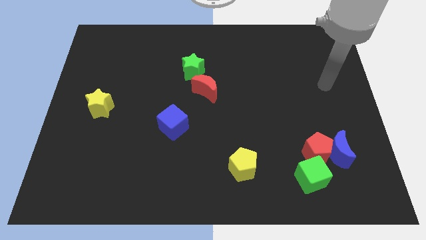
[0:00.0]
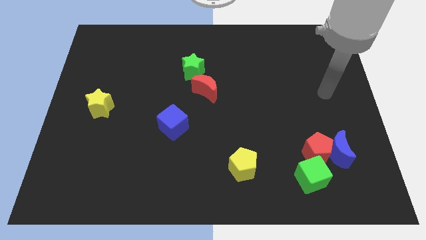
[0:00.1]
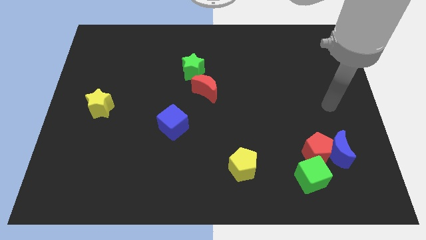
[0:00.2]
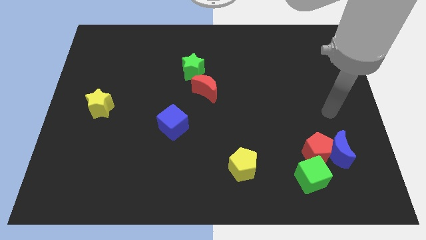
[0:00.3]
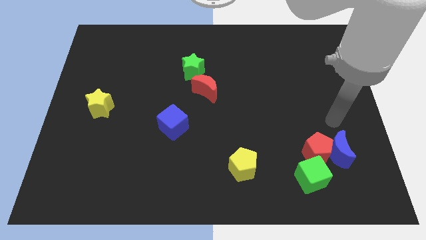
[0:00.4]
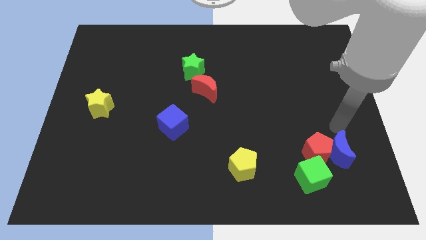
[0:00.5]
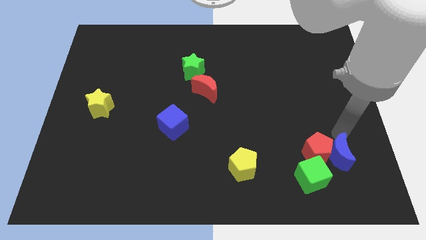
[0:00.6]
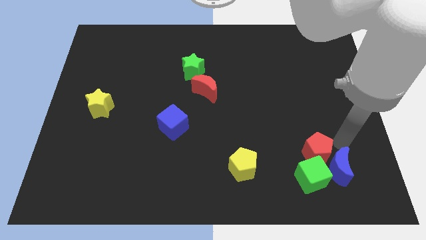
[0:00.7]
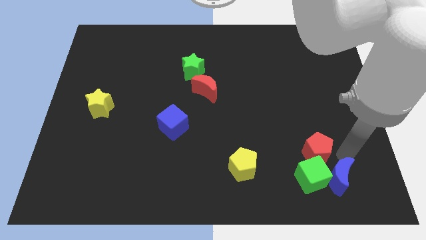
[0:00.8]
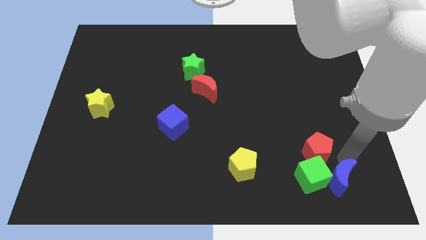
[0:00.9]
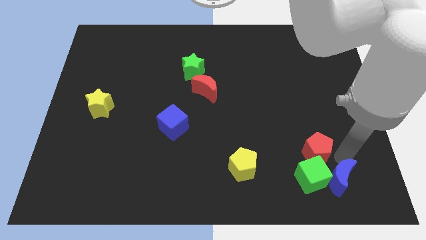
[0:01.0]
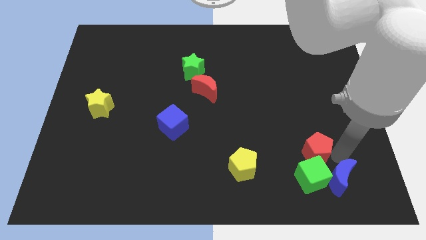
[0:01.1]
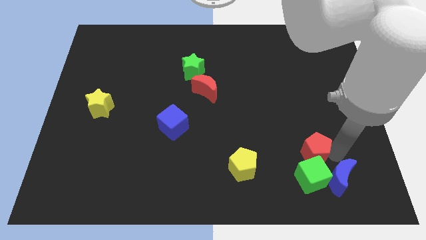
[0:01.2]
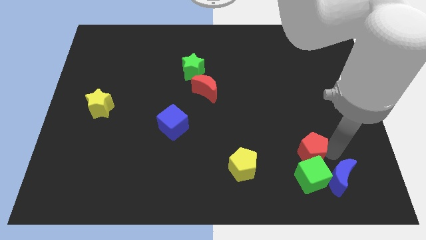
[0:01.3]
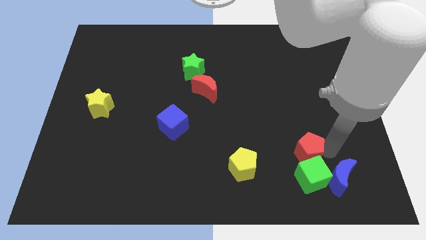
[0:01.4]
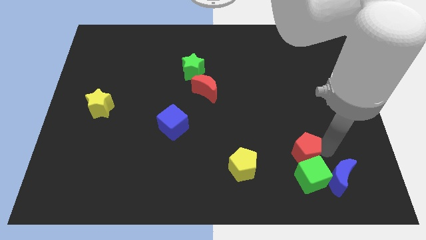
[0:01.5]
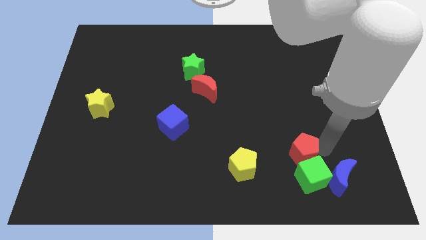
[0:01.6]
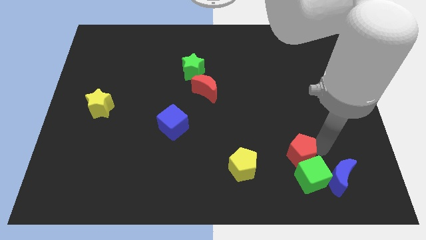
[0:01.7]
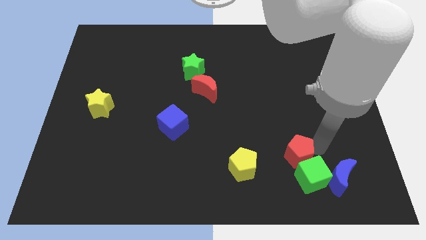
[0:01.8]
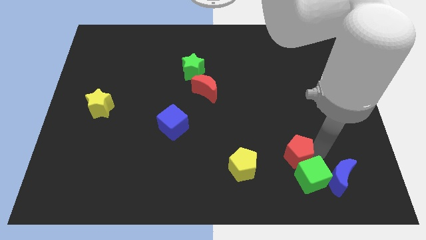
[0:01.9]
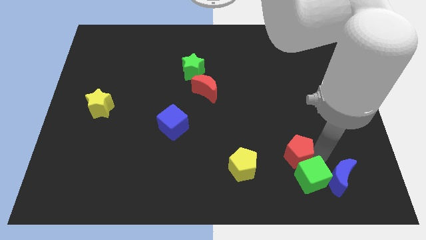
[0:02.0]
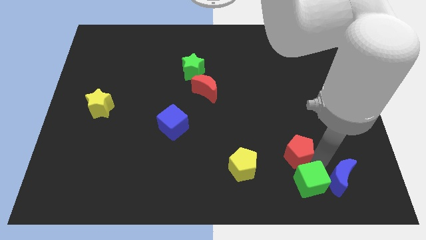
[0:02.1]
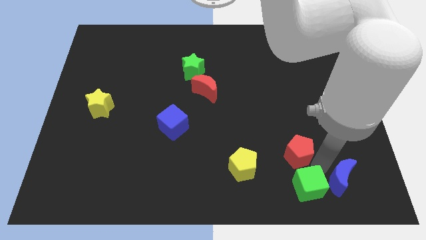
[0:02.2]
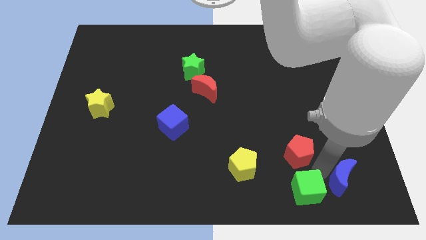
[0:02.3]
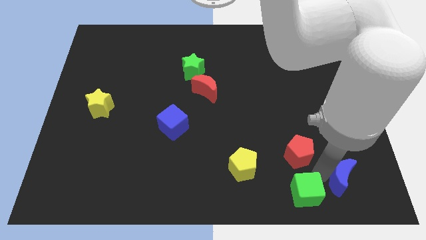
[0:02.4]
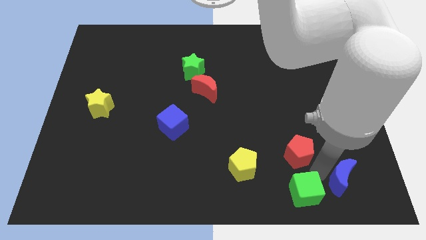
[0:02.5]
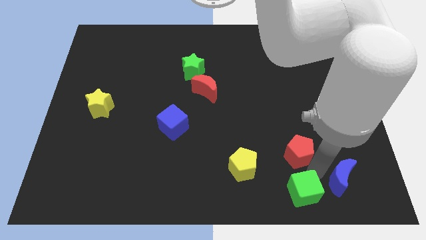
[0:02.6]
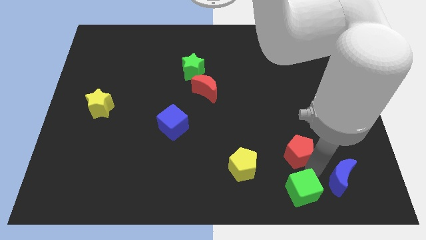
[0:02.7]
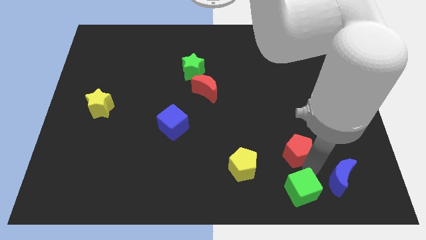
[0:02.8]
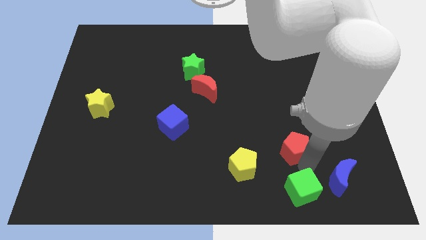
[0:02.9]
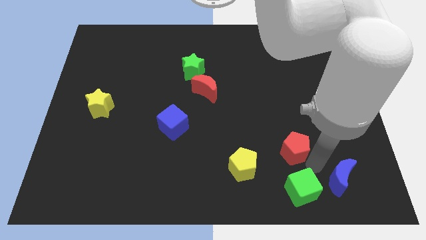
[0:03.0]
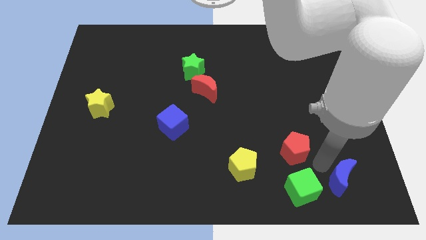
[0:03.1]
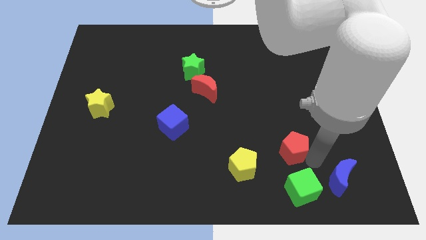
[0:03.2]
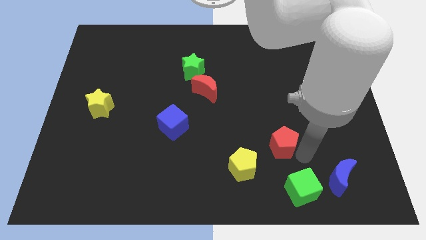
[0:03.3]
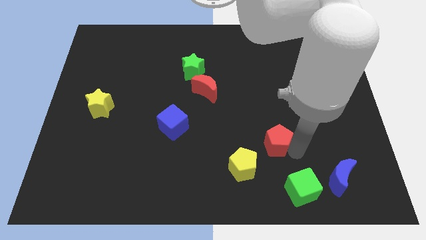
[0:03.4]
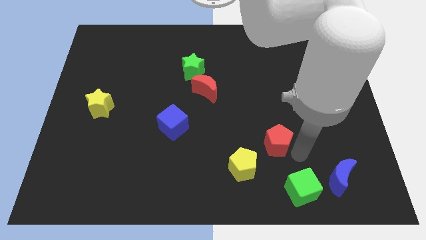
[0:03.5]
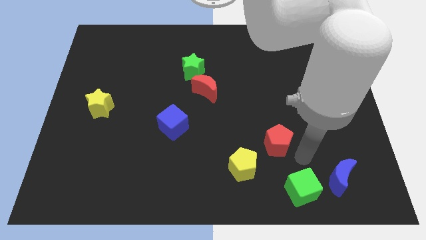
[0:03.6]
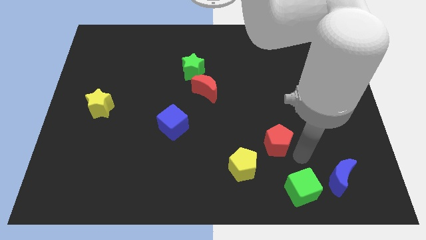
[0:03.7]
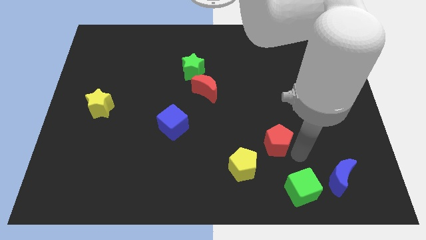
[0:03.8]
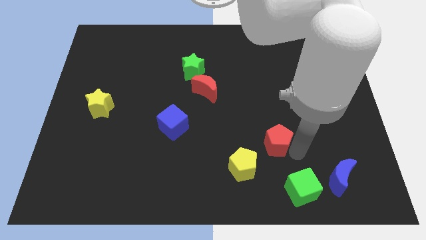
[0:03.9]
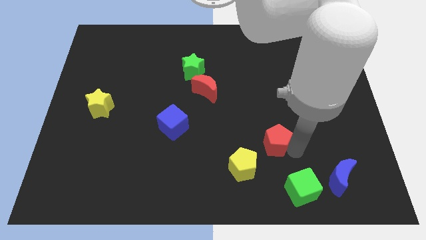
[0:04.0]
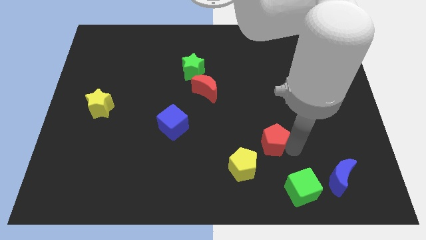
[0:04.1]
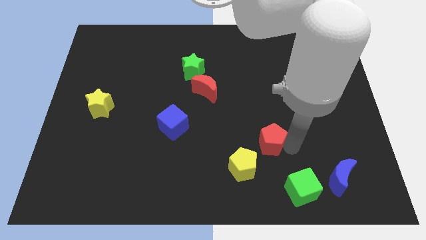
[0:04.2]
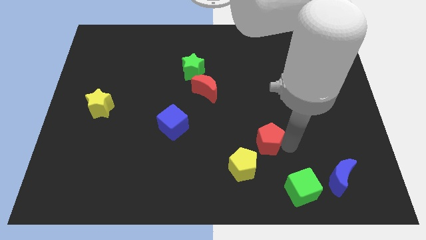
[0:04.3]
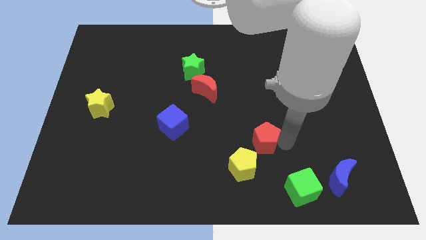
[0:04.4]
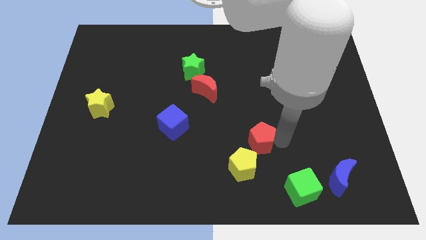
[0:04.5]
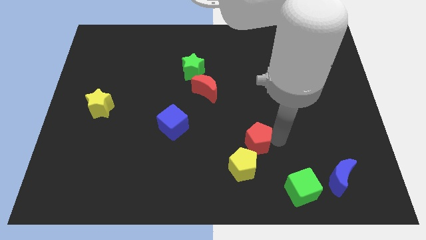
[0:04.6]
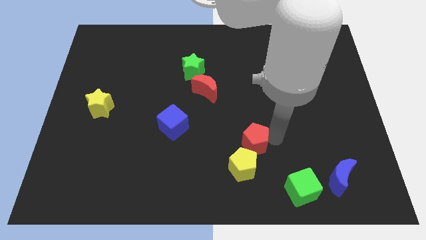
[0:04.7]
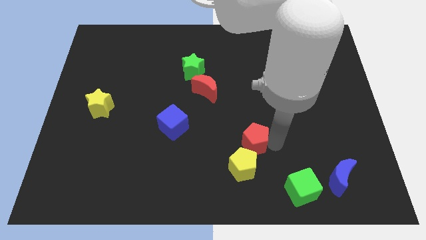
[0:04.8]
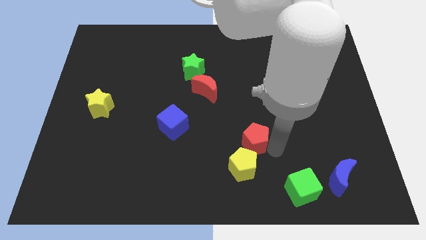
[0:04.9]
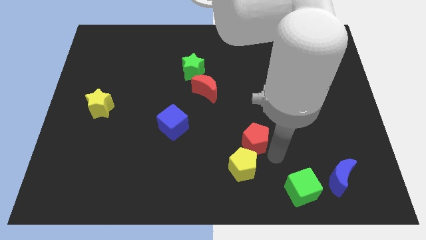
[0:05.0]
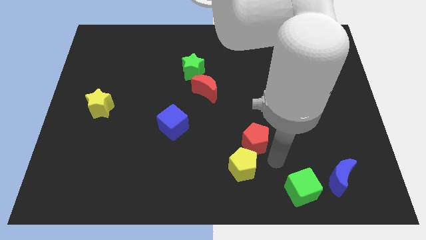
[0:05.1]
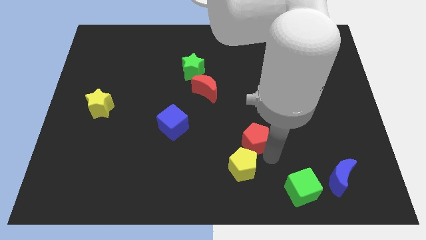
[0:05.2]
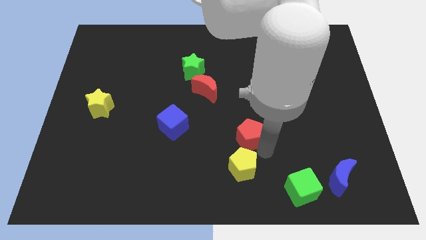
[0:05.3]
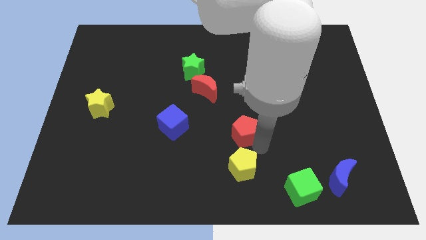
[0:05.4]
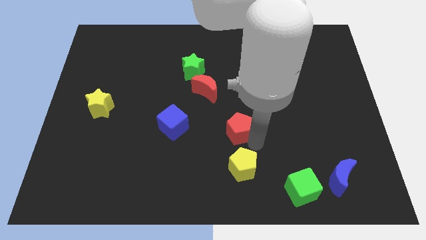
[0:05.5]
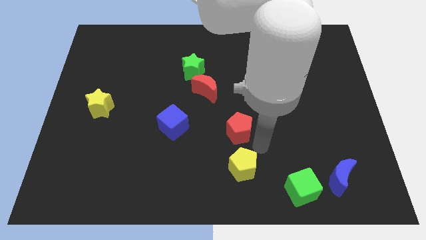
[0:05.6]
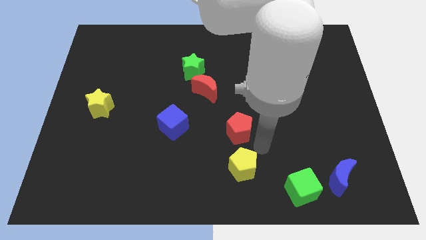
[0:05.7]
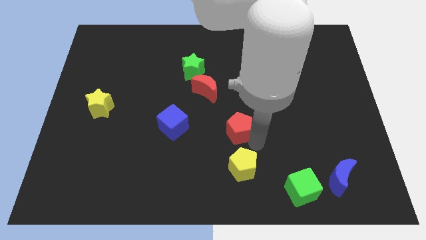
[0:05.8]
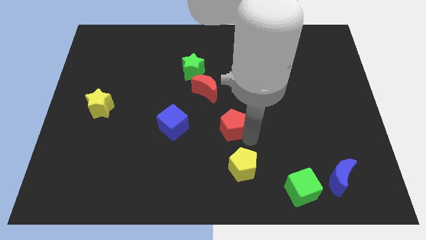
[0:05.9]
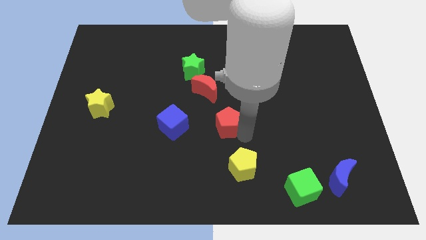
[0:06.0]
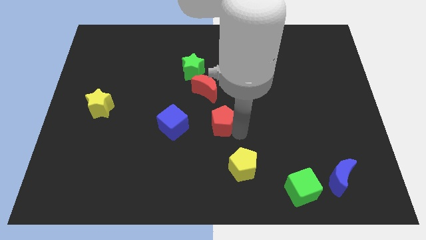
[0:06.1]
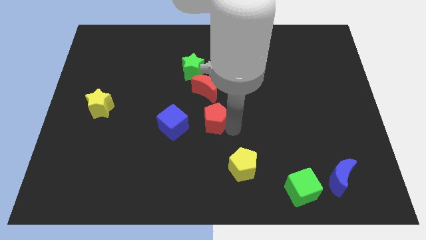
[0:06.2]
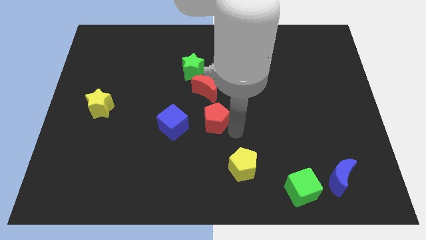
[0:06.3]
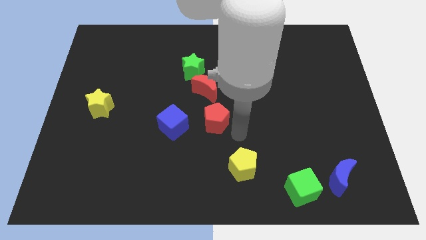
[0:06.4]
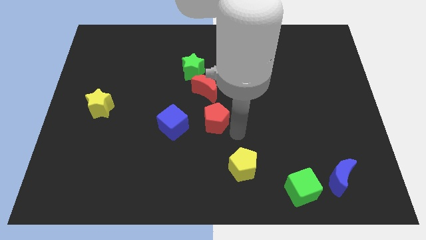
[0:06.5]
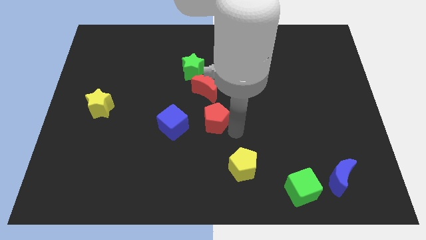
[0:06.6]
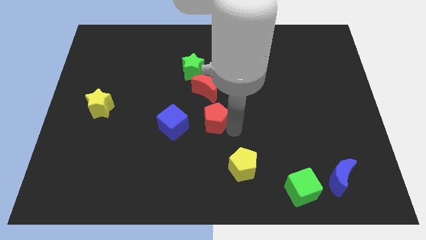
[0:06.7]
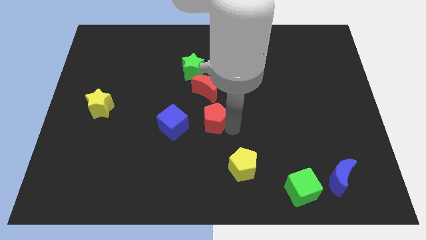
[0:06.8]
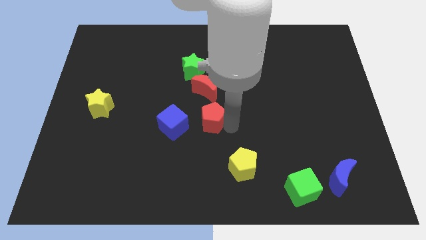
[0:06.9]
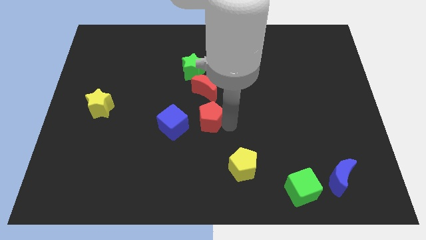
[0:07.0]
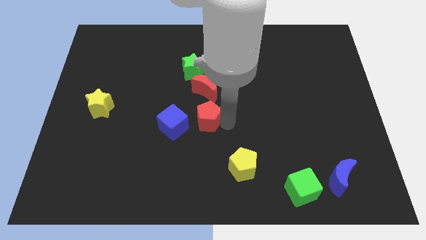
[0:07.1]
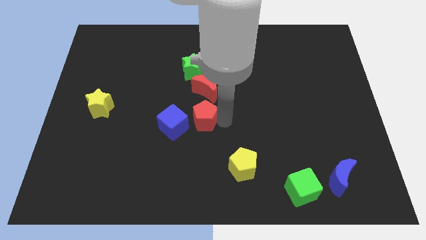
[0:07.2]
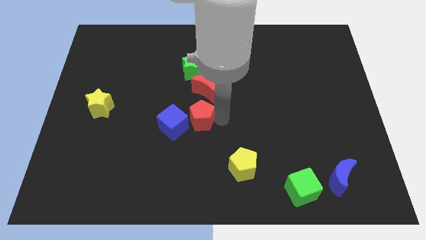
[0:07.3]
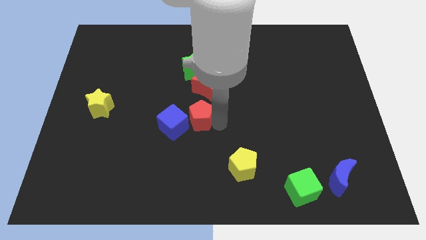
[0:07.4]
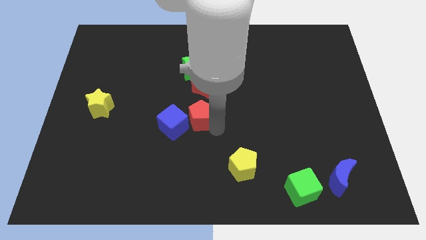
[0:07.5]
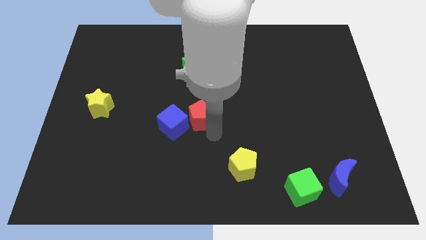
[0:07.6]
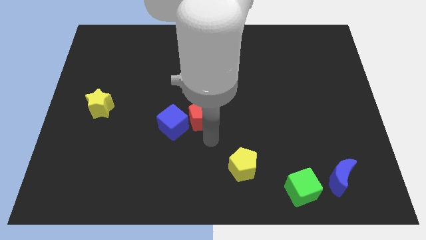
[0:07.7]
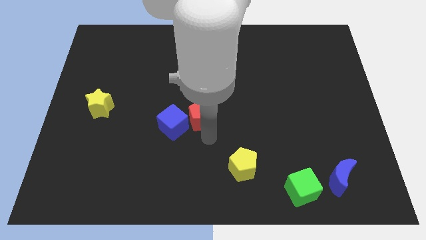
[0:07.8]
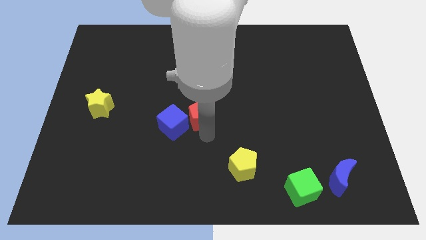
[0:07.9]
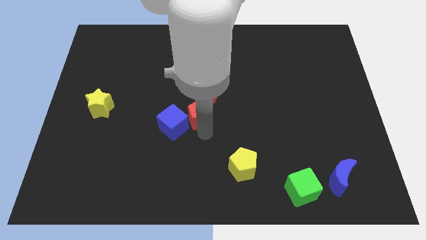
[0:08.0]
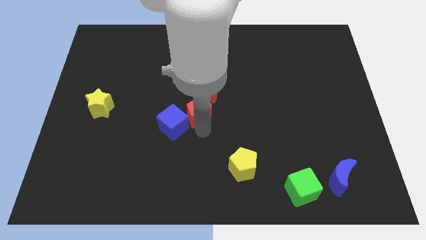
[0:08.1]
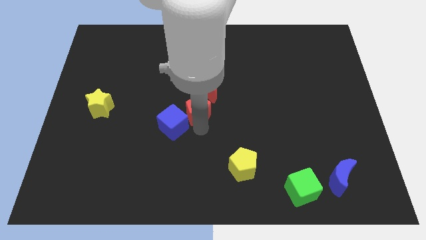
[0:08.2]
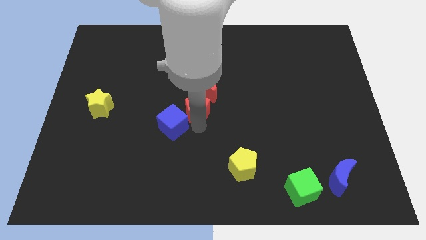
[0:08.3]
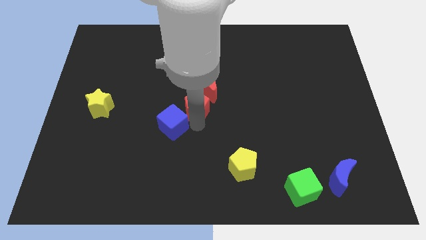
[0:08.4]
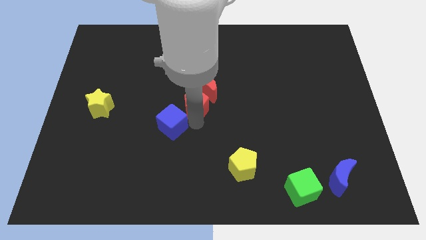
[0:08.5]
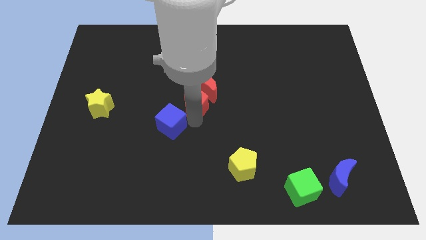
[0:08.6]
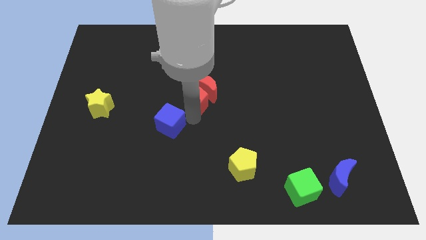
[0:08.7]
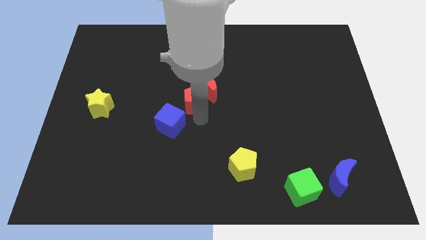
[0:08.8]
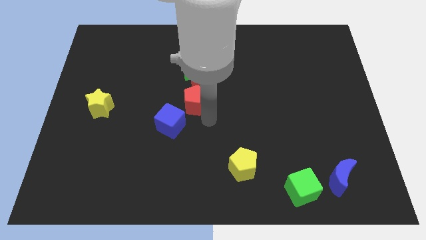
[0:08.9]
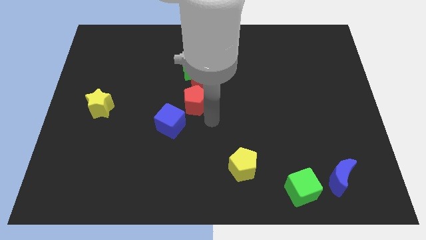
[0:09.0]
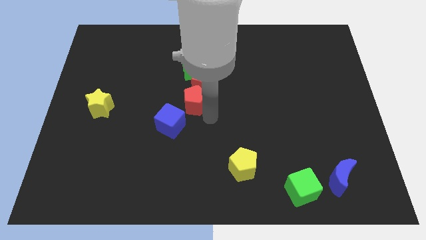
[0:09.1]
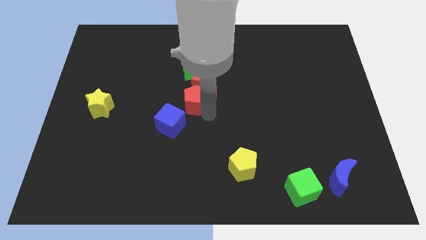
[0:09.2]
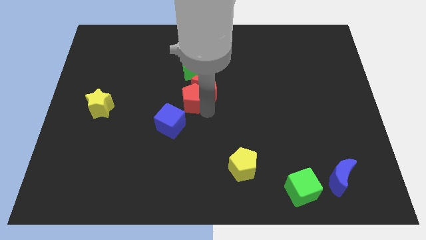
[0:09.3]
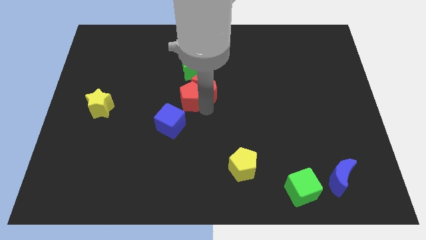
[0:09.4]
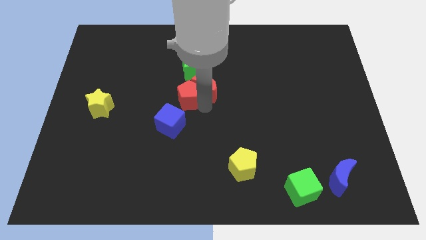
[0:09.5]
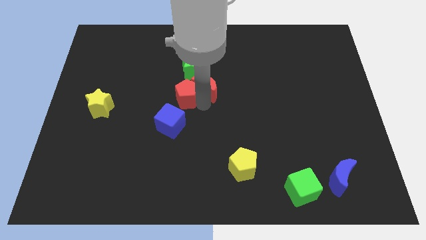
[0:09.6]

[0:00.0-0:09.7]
slide the red pentagon to the top left side of the red moon
